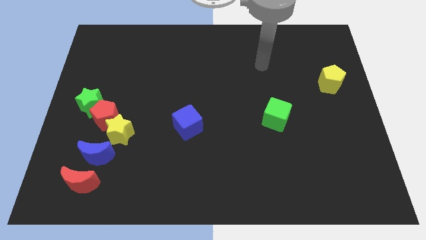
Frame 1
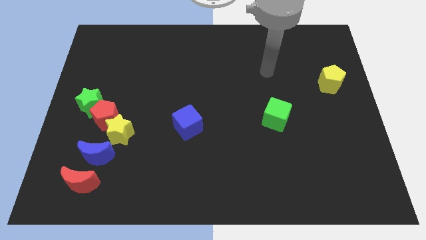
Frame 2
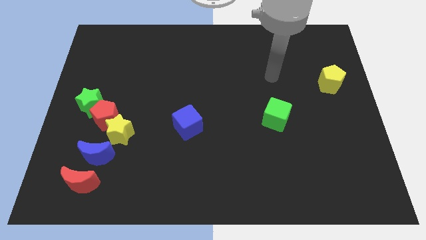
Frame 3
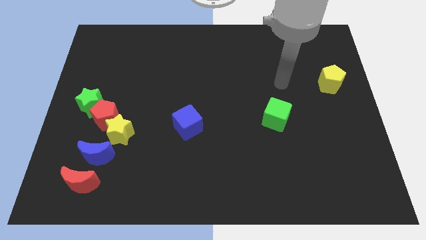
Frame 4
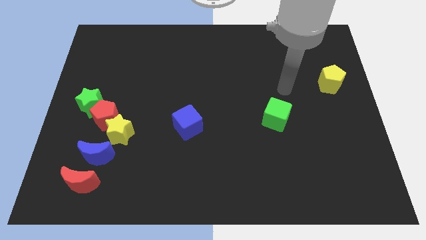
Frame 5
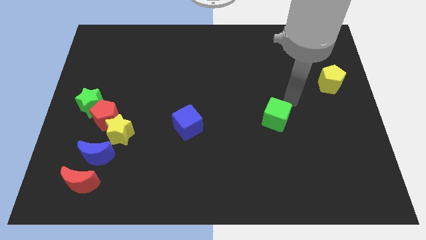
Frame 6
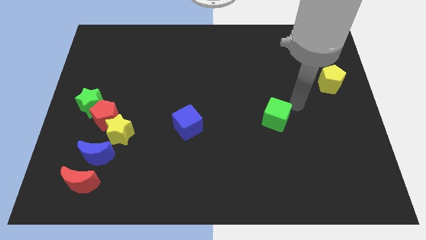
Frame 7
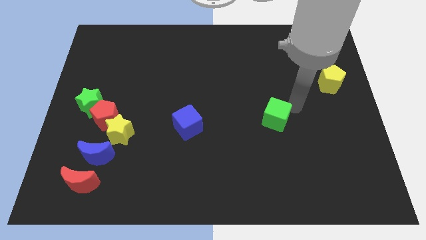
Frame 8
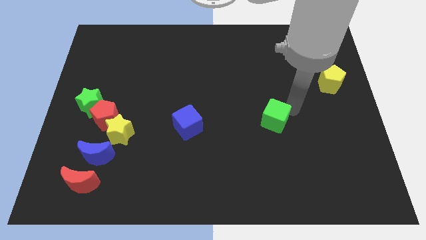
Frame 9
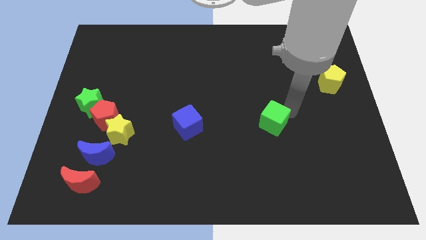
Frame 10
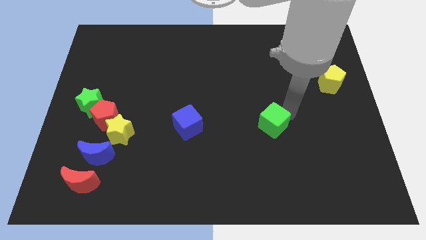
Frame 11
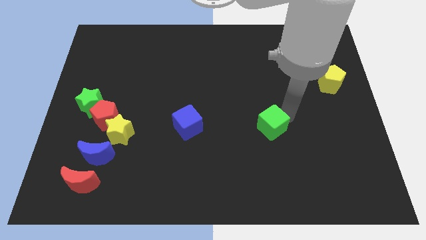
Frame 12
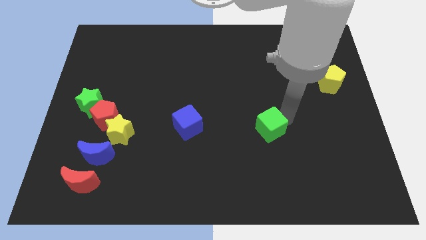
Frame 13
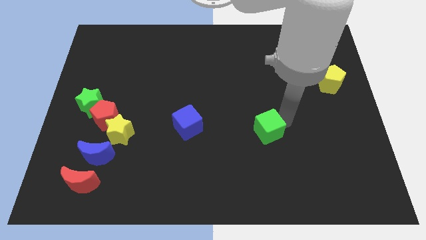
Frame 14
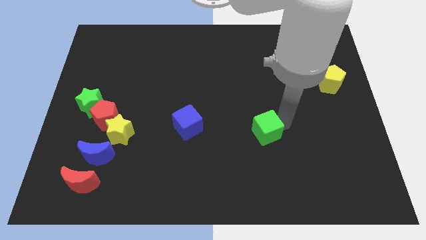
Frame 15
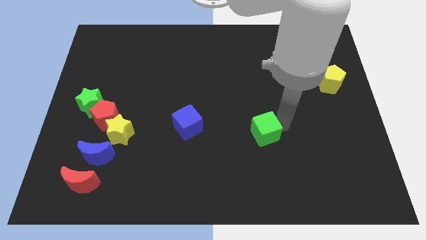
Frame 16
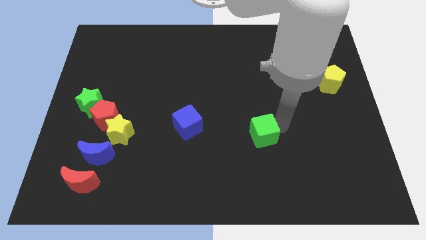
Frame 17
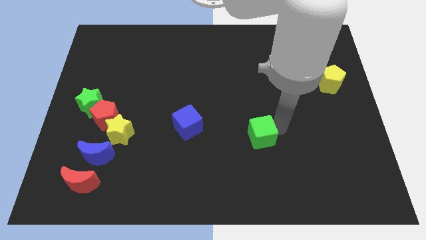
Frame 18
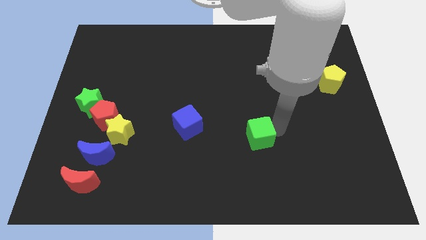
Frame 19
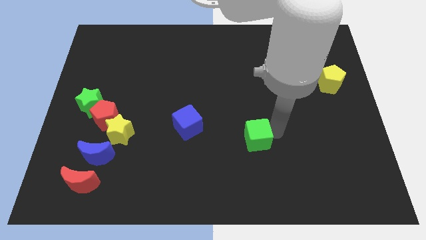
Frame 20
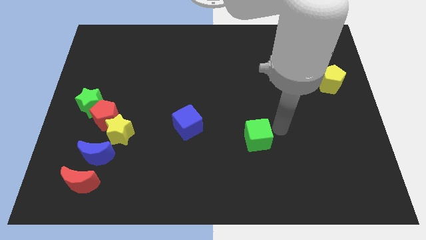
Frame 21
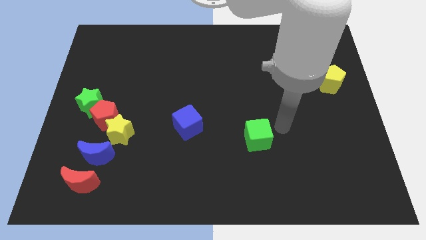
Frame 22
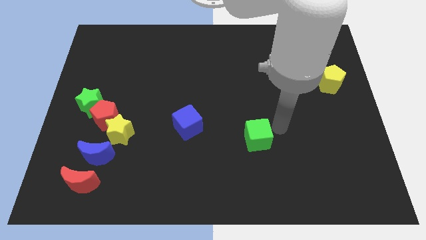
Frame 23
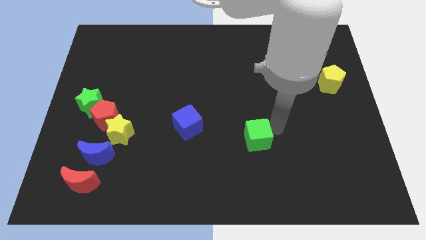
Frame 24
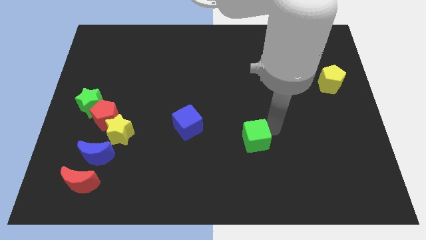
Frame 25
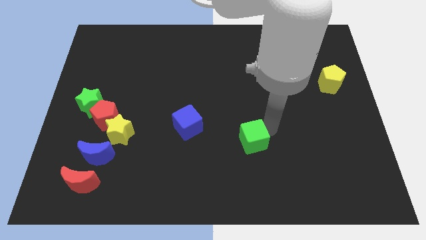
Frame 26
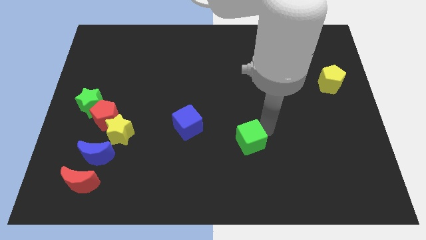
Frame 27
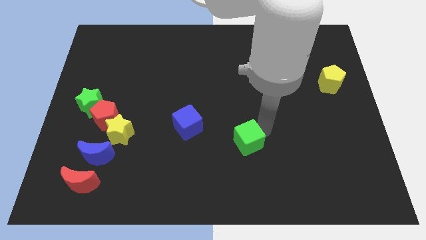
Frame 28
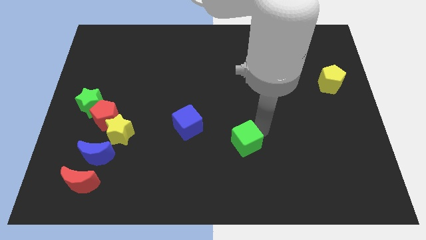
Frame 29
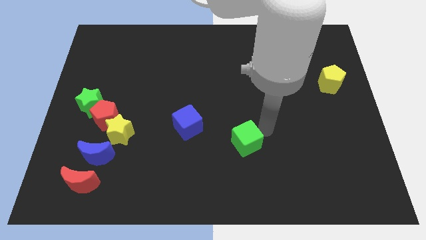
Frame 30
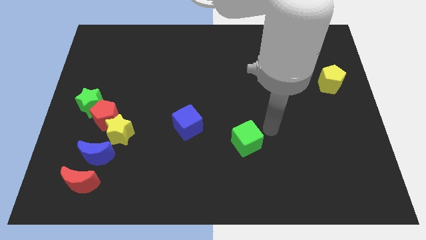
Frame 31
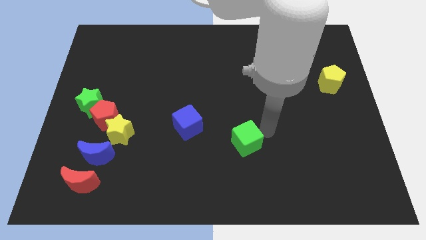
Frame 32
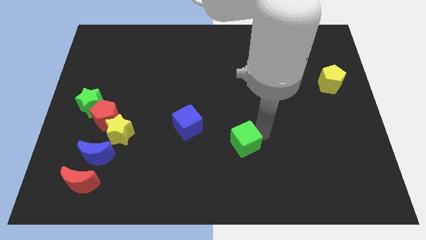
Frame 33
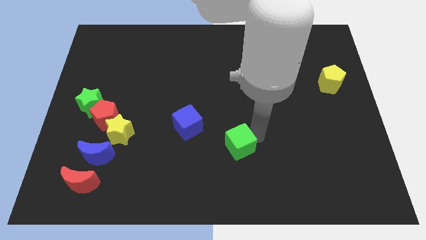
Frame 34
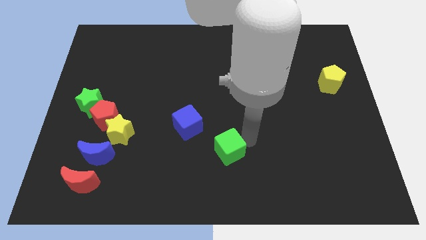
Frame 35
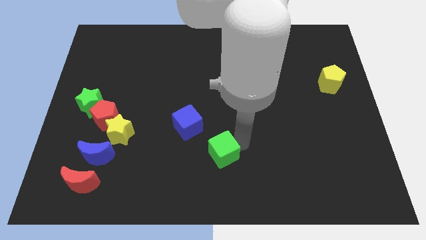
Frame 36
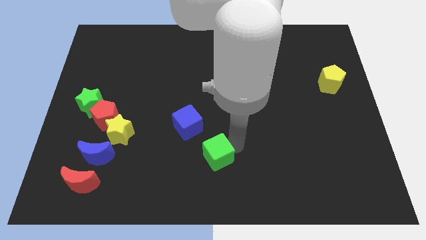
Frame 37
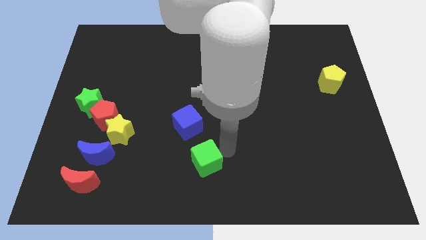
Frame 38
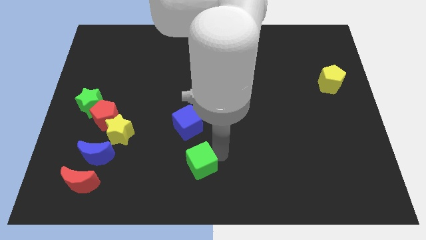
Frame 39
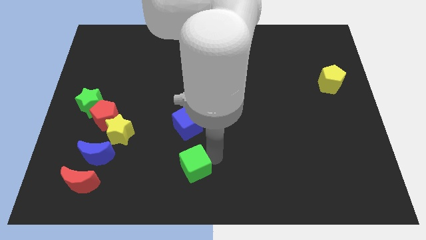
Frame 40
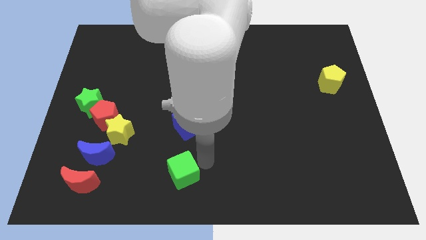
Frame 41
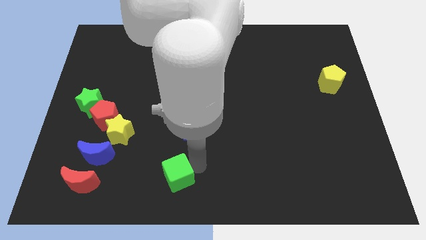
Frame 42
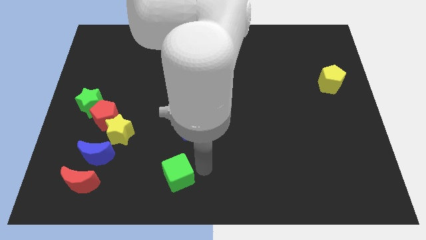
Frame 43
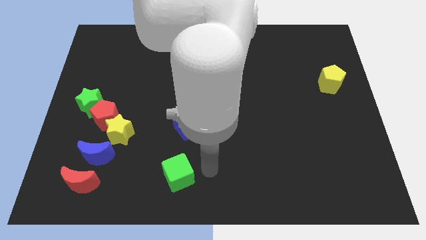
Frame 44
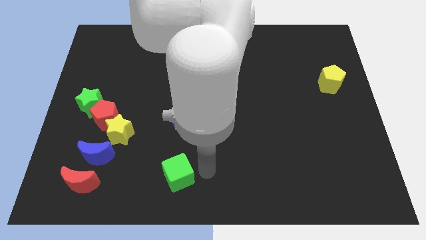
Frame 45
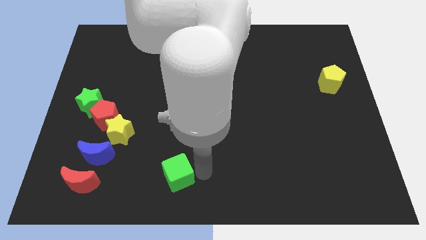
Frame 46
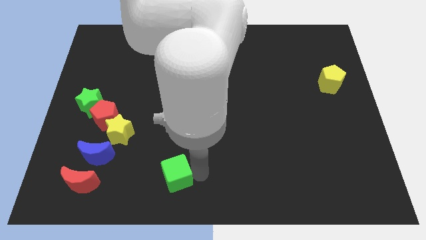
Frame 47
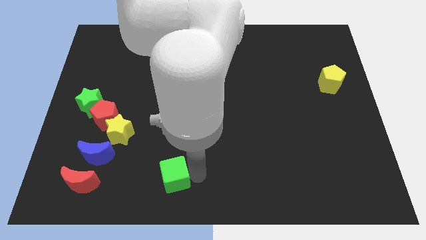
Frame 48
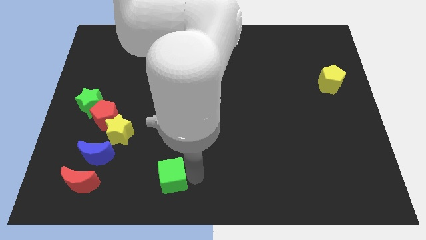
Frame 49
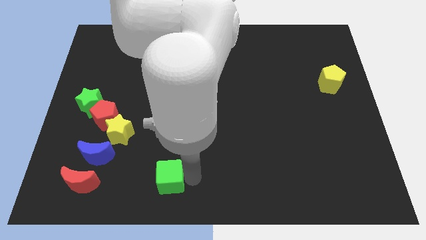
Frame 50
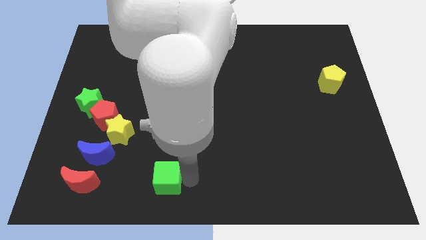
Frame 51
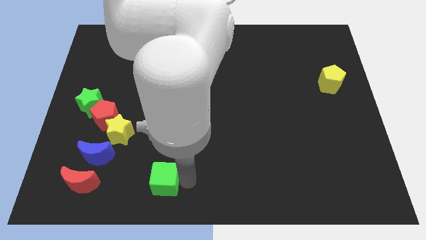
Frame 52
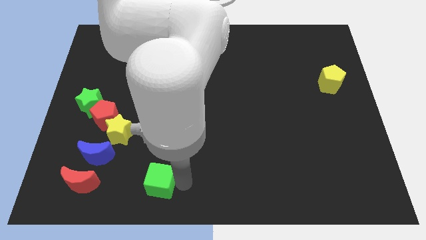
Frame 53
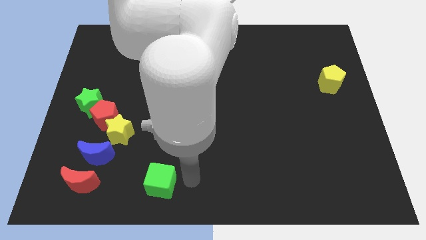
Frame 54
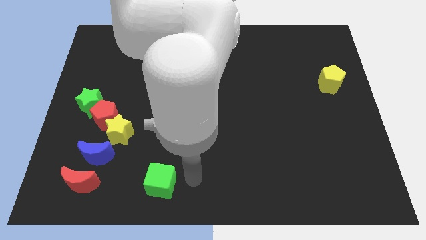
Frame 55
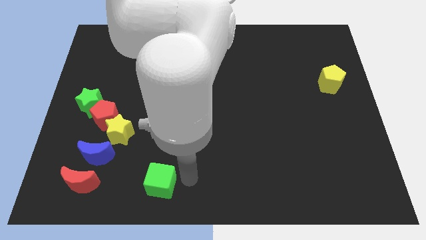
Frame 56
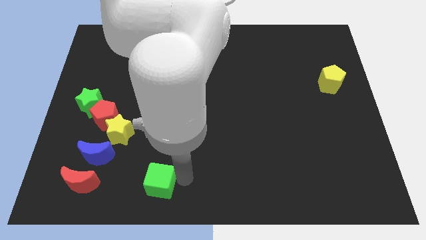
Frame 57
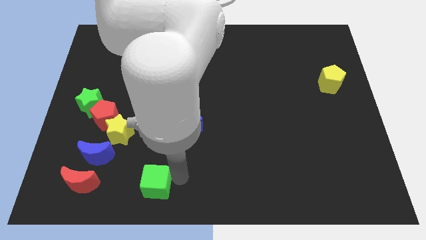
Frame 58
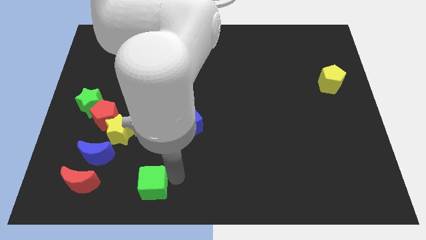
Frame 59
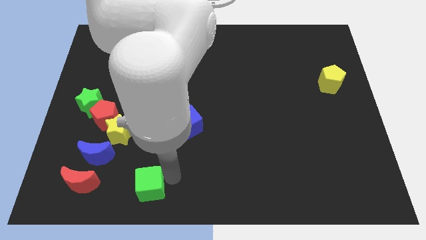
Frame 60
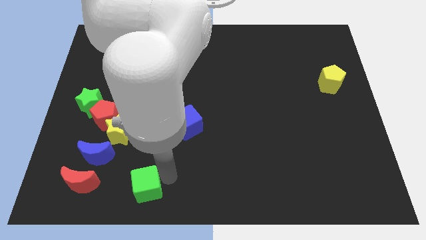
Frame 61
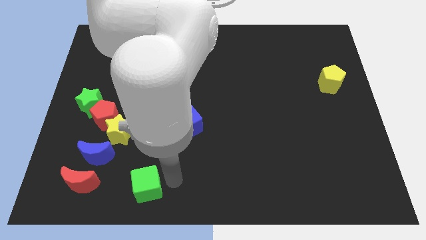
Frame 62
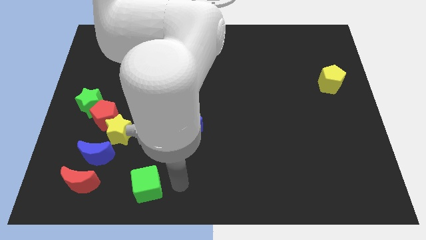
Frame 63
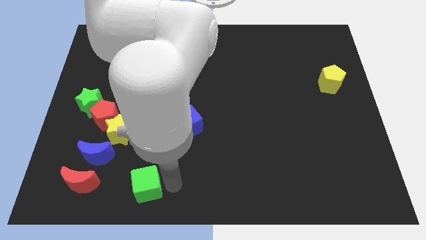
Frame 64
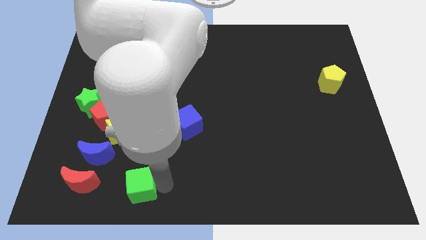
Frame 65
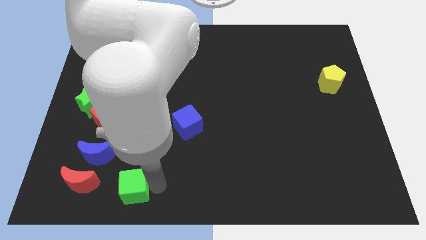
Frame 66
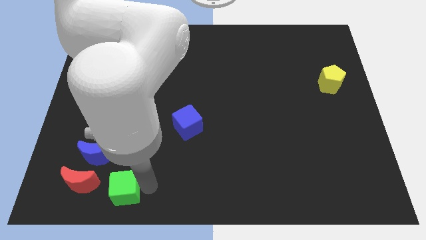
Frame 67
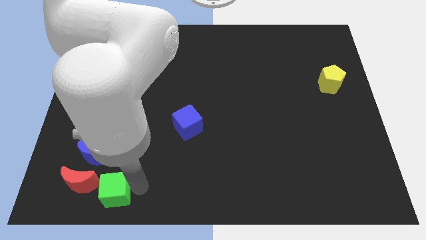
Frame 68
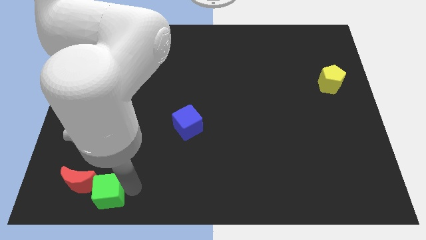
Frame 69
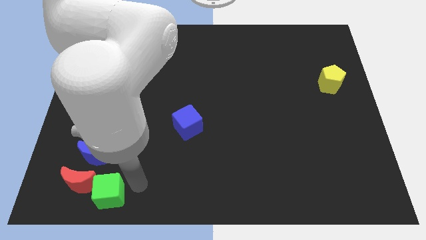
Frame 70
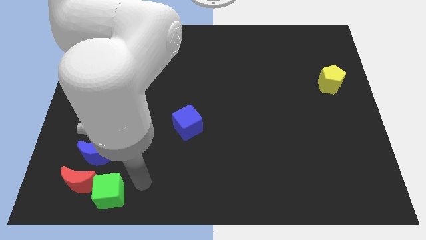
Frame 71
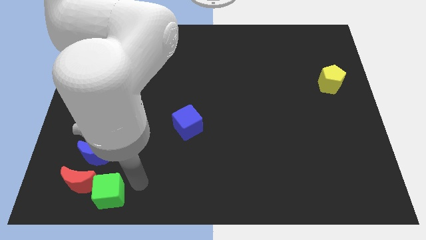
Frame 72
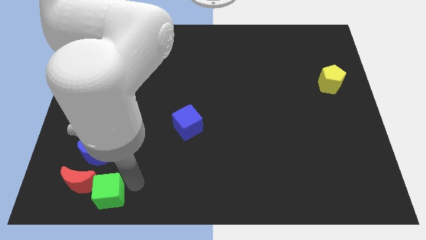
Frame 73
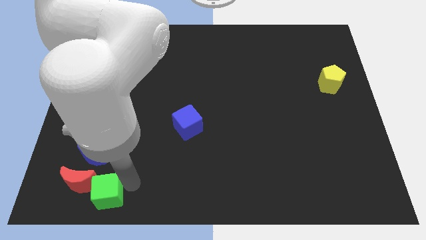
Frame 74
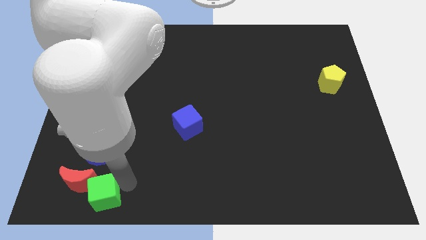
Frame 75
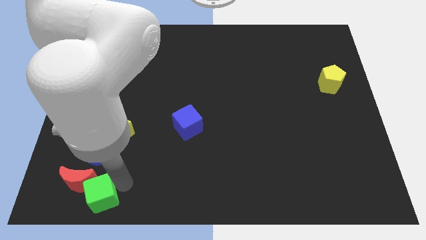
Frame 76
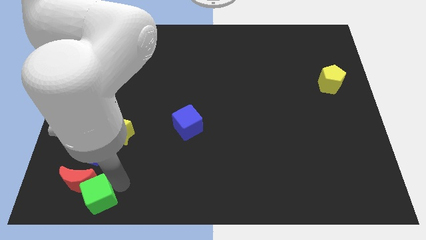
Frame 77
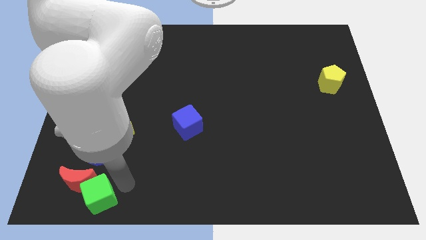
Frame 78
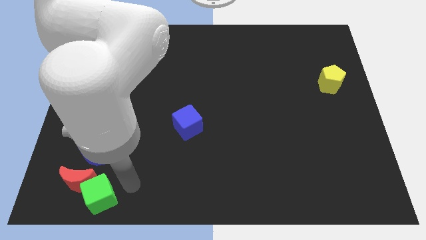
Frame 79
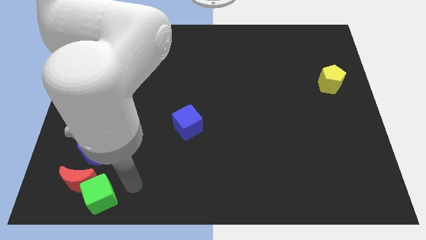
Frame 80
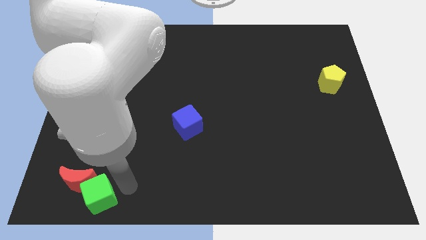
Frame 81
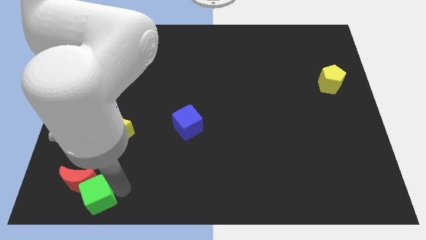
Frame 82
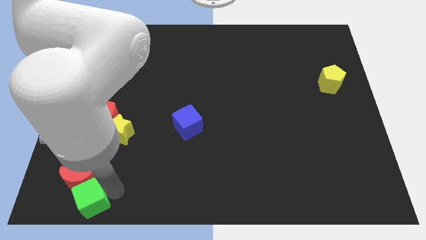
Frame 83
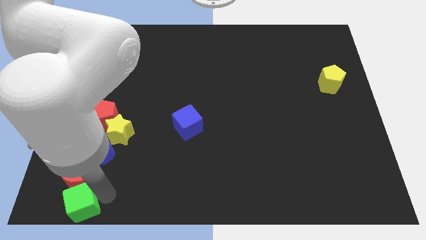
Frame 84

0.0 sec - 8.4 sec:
move the green cube to the lower left corner
